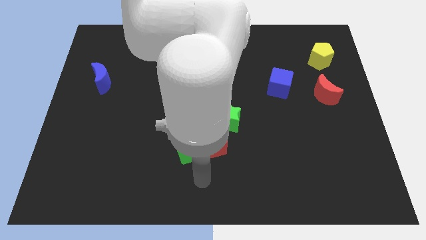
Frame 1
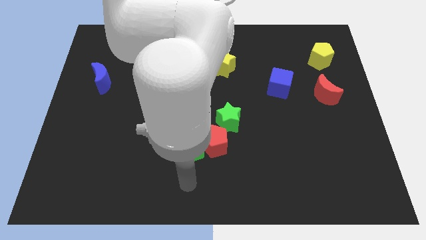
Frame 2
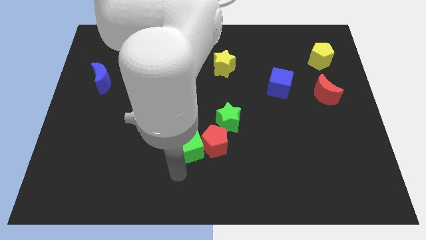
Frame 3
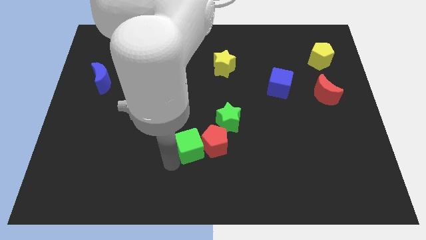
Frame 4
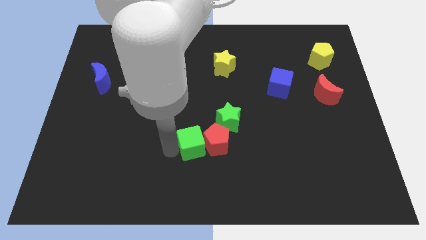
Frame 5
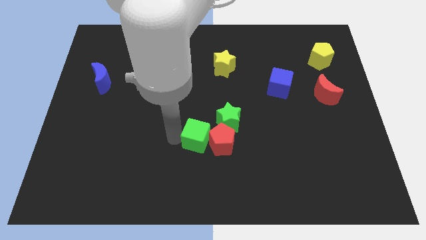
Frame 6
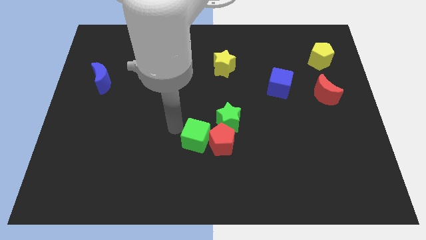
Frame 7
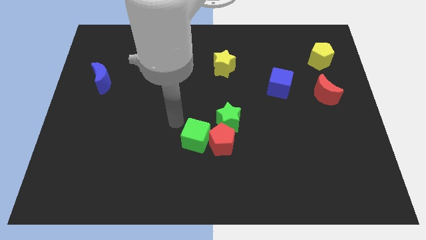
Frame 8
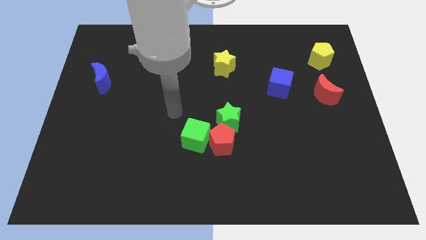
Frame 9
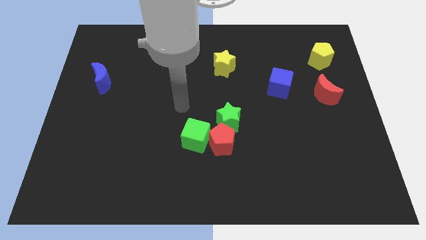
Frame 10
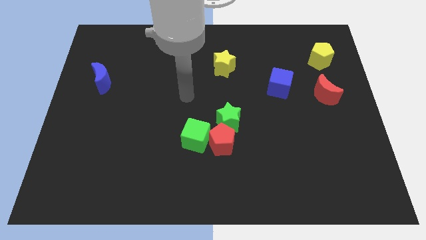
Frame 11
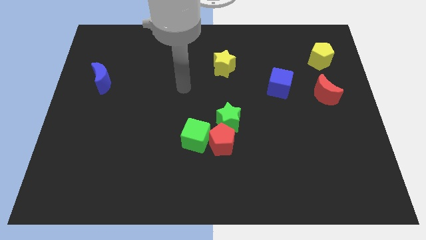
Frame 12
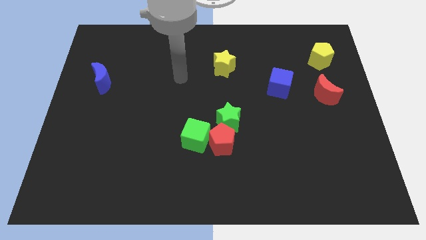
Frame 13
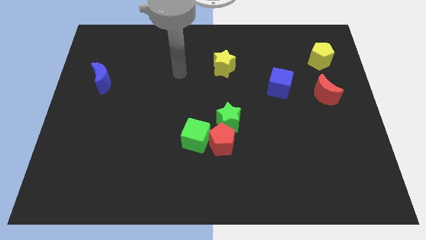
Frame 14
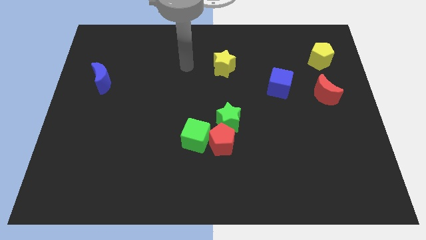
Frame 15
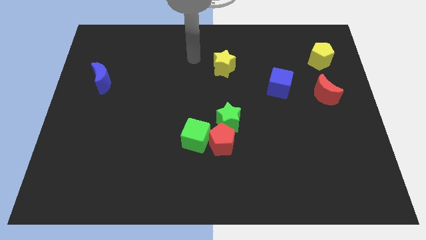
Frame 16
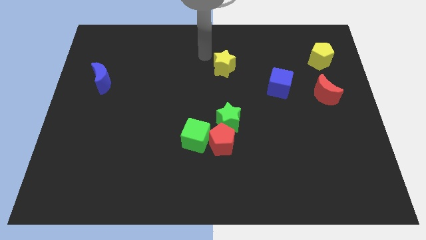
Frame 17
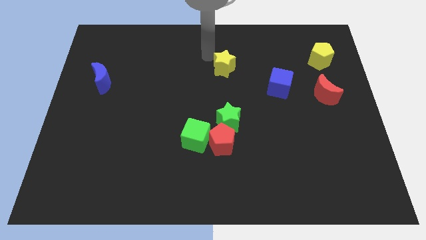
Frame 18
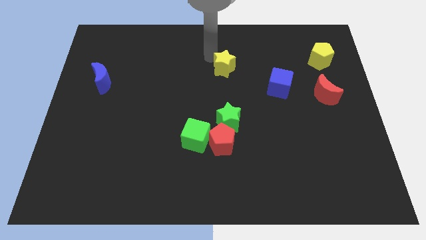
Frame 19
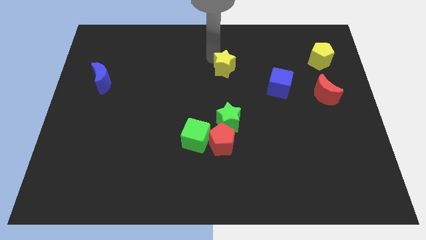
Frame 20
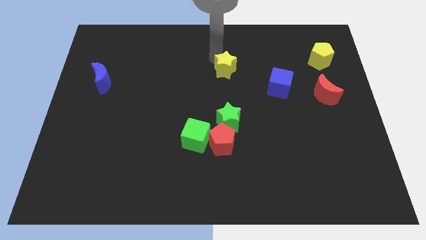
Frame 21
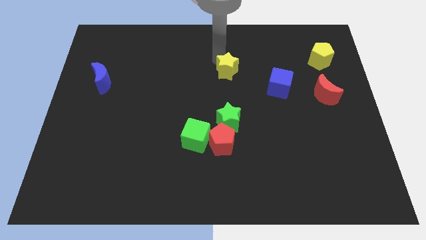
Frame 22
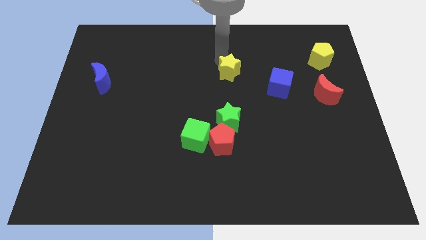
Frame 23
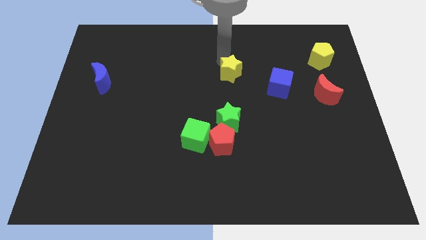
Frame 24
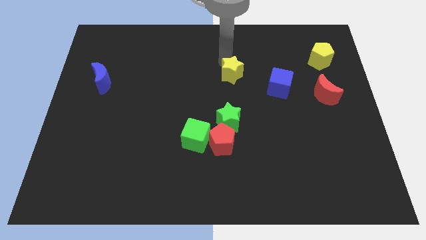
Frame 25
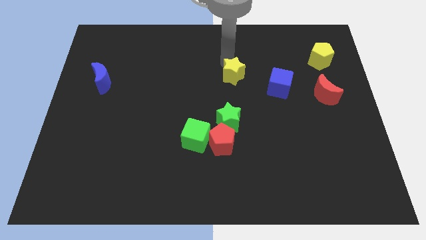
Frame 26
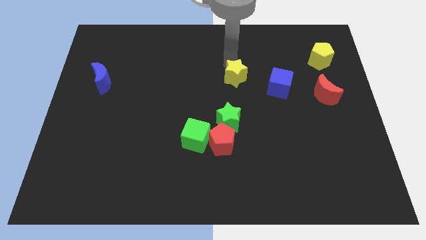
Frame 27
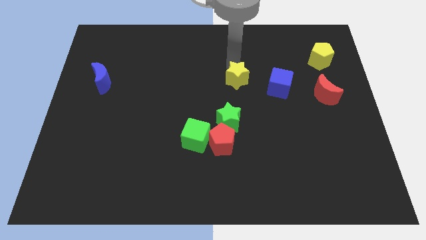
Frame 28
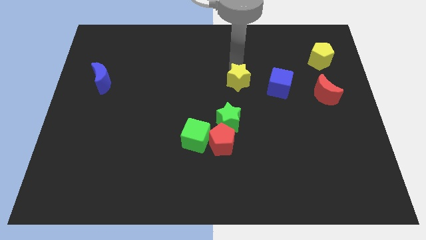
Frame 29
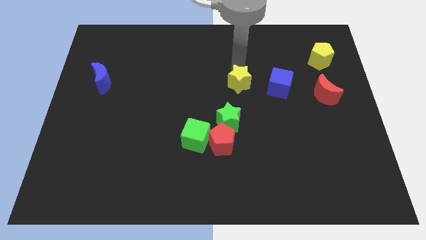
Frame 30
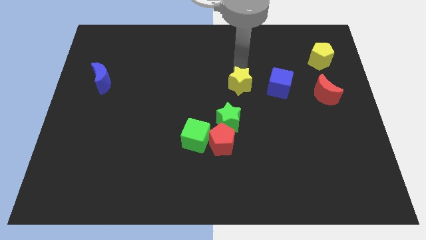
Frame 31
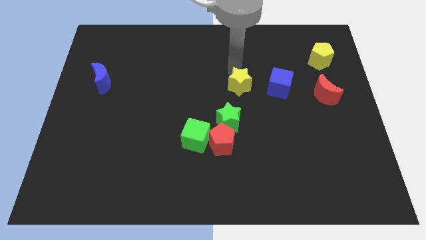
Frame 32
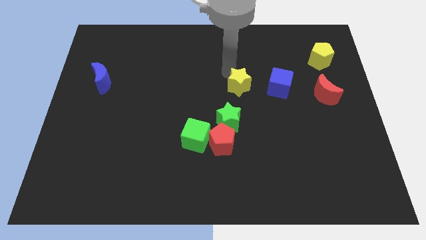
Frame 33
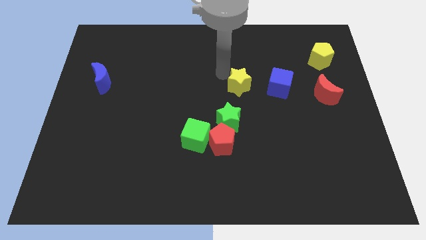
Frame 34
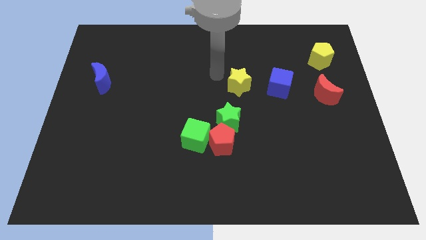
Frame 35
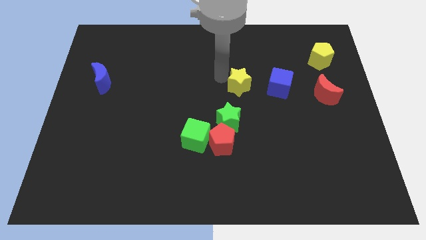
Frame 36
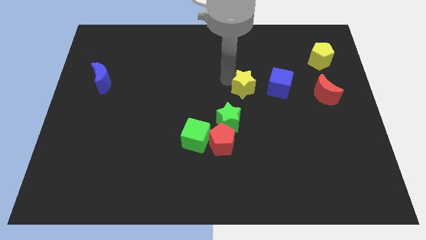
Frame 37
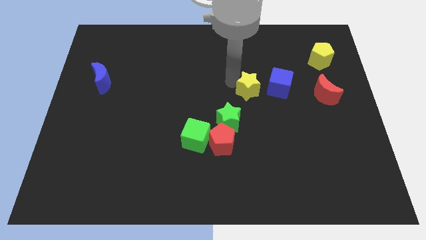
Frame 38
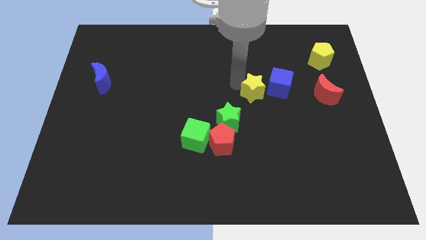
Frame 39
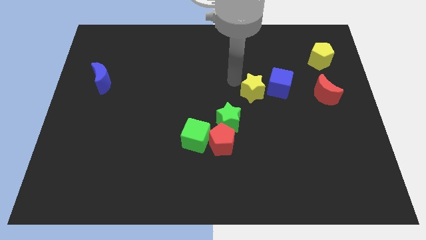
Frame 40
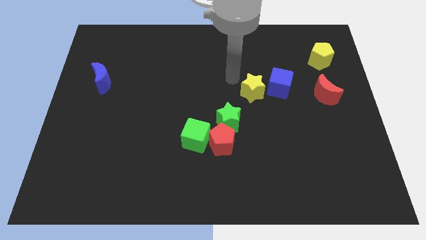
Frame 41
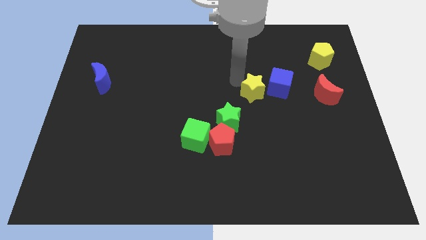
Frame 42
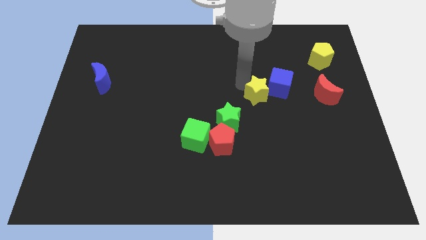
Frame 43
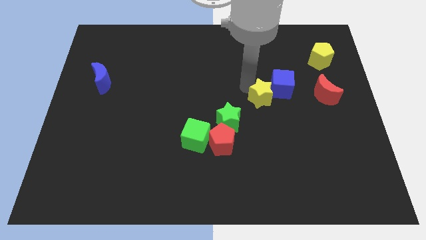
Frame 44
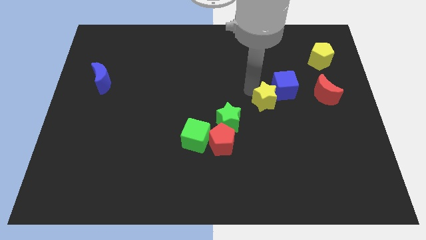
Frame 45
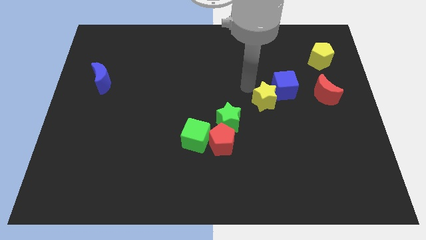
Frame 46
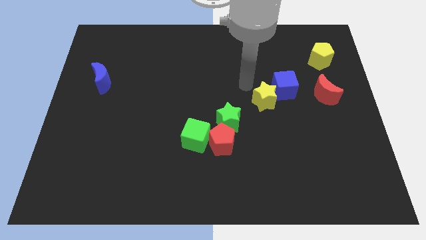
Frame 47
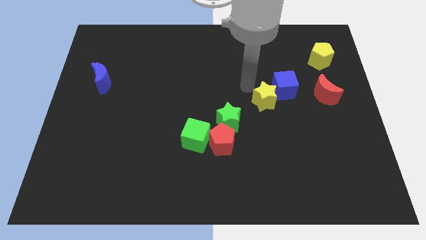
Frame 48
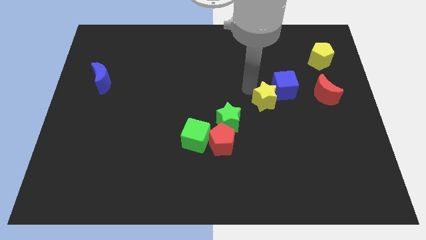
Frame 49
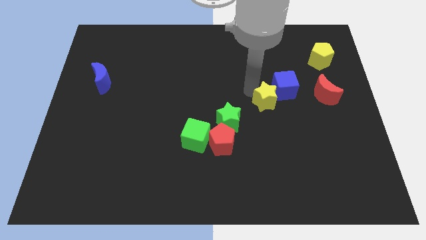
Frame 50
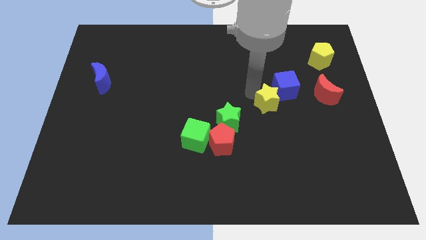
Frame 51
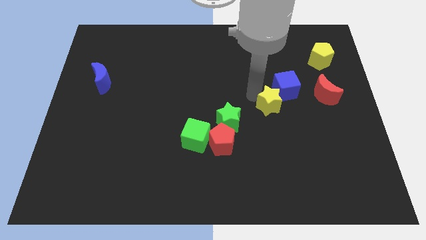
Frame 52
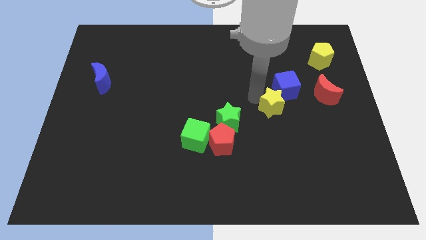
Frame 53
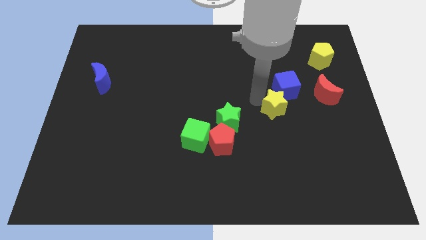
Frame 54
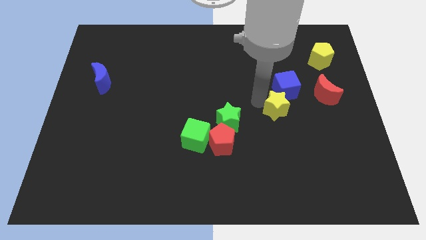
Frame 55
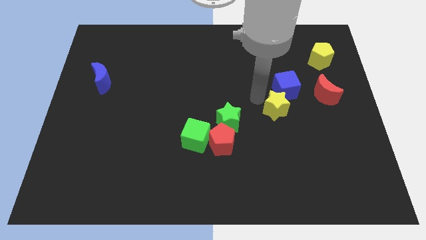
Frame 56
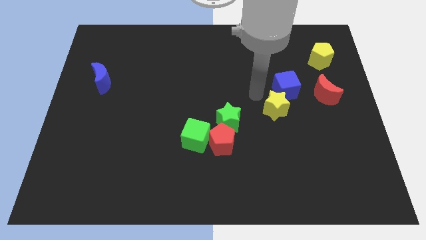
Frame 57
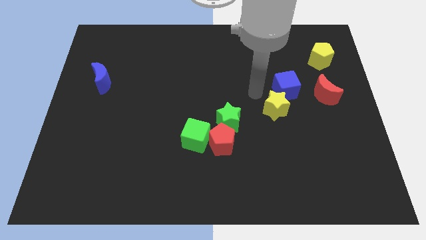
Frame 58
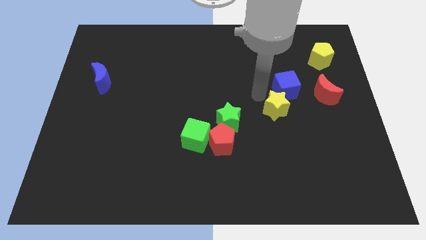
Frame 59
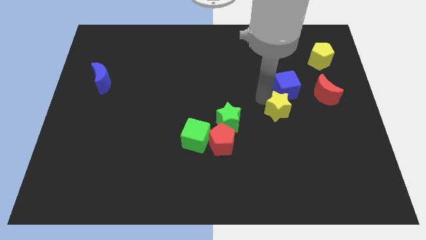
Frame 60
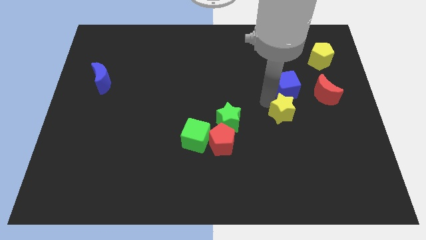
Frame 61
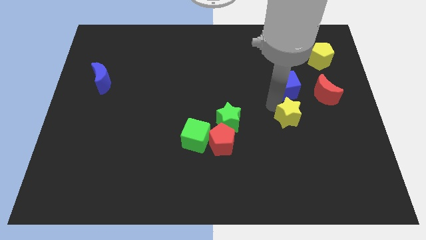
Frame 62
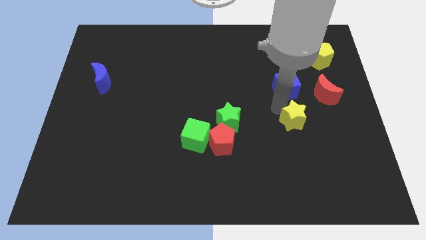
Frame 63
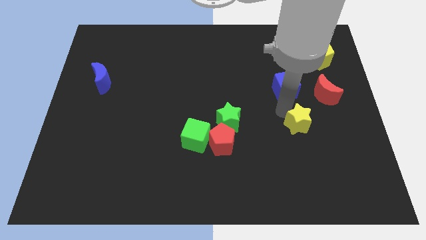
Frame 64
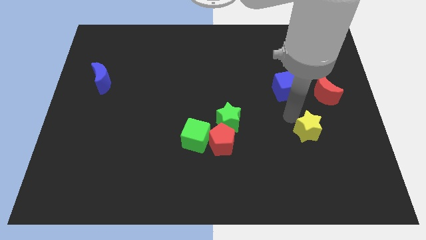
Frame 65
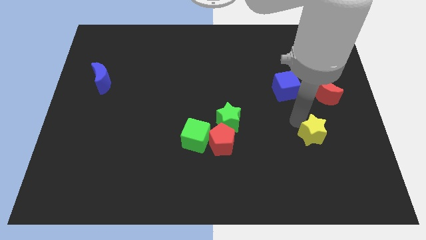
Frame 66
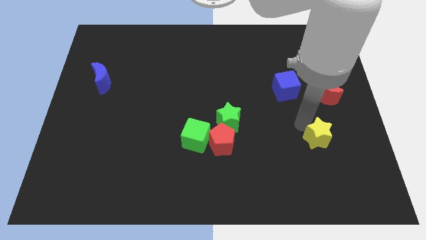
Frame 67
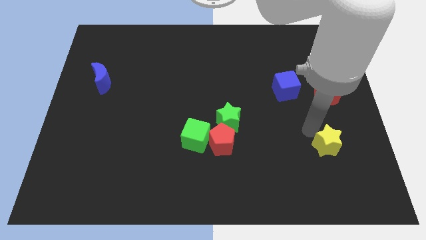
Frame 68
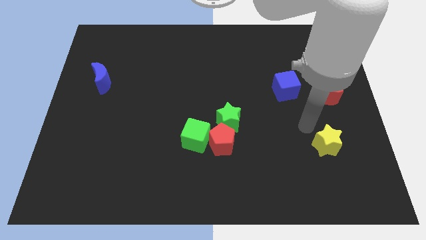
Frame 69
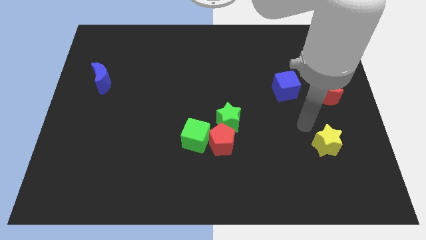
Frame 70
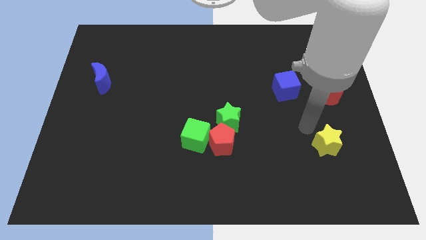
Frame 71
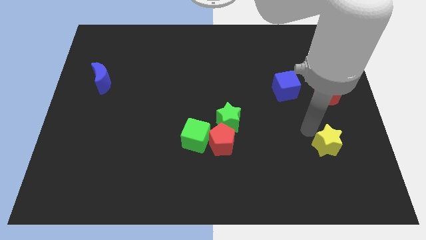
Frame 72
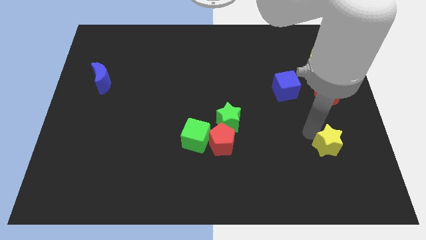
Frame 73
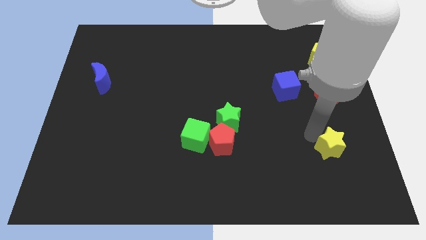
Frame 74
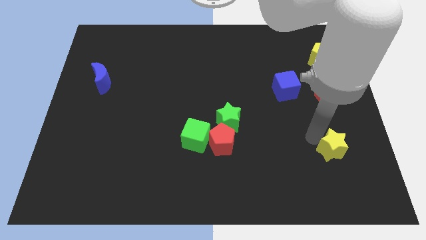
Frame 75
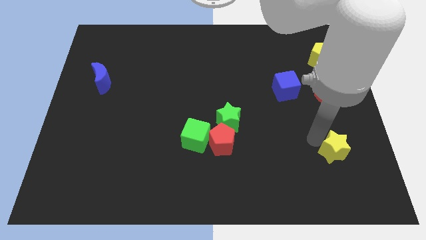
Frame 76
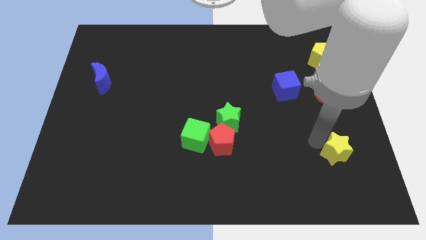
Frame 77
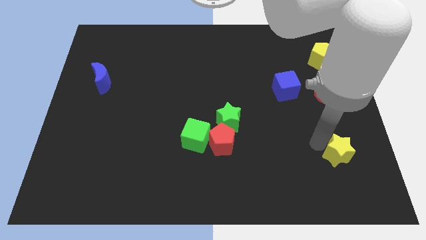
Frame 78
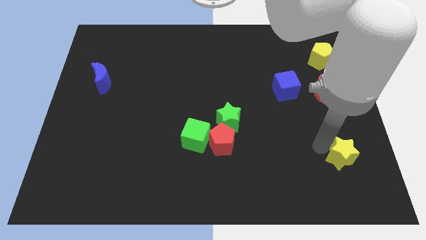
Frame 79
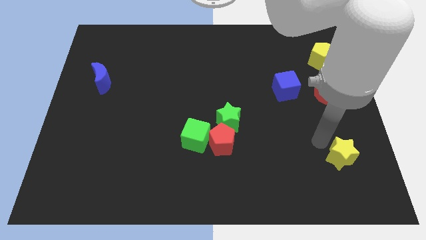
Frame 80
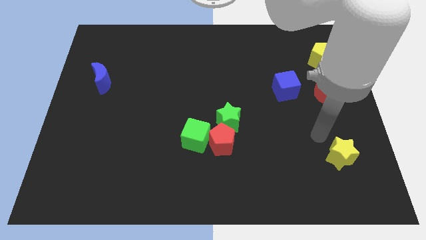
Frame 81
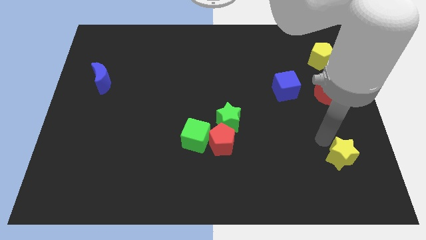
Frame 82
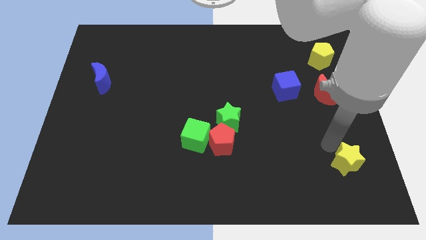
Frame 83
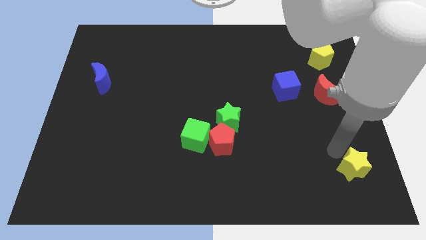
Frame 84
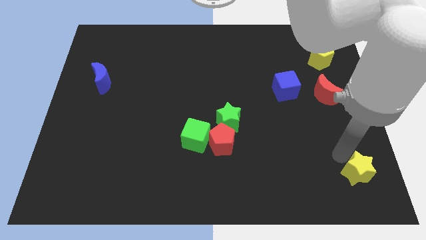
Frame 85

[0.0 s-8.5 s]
push the yellow star to the bottom right of the board
